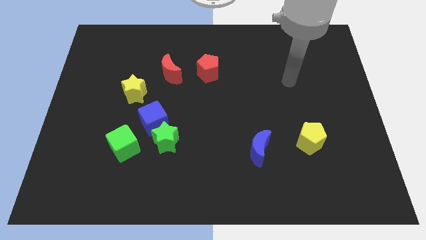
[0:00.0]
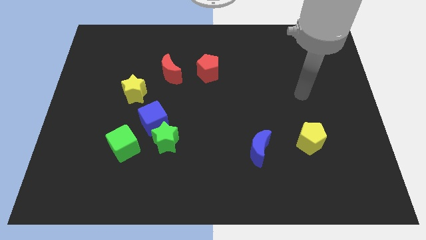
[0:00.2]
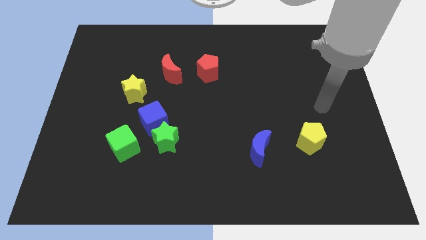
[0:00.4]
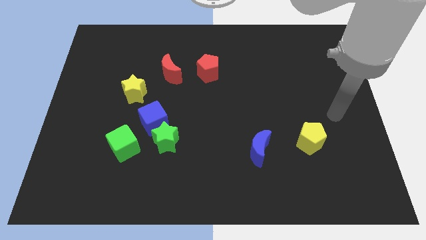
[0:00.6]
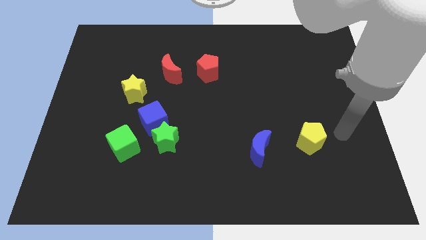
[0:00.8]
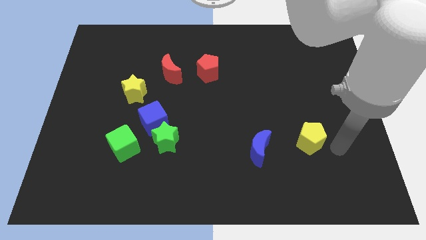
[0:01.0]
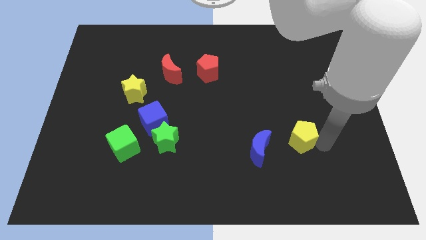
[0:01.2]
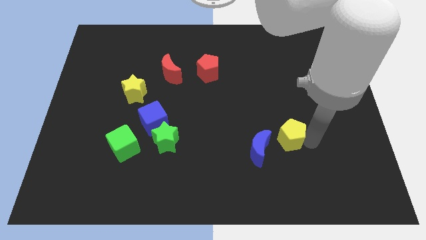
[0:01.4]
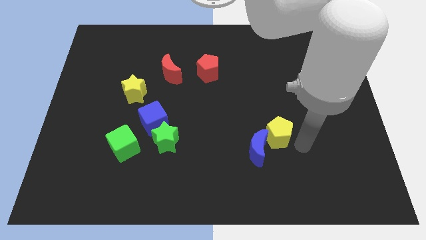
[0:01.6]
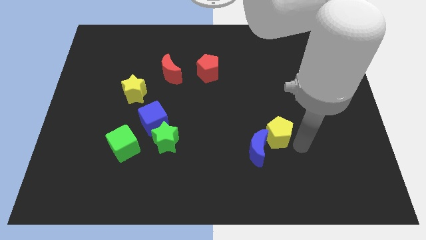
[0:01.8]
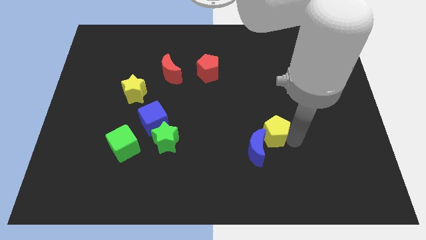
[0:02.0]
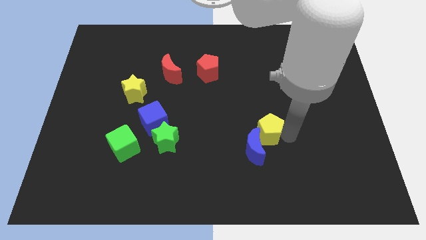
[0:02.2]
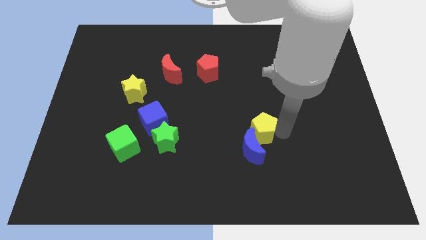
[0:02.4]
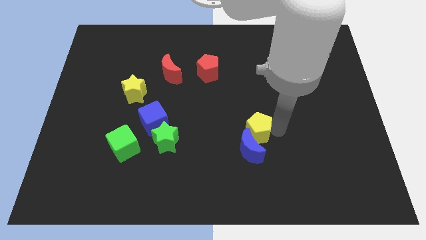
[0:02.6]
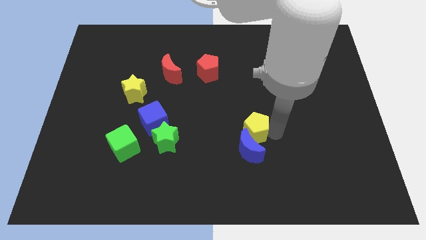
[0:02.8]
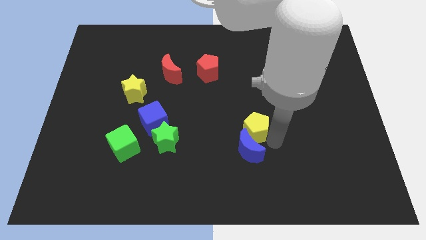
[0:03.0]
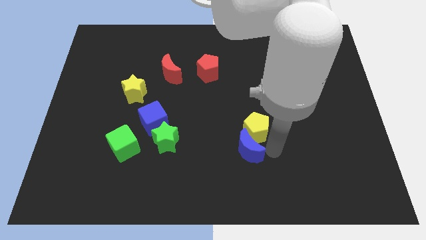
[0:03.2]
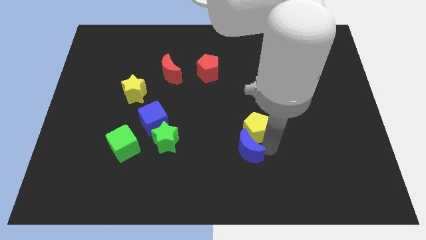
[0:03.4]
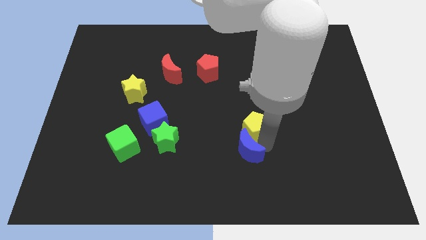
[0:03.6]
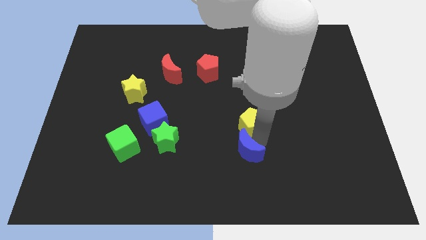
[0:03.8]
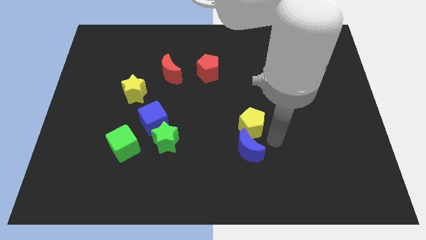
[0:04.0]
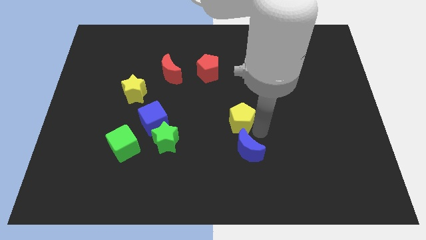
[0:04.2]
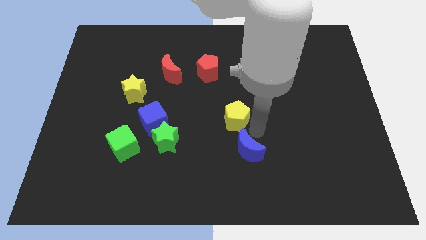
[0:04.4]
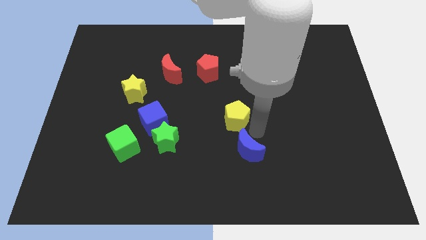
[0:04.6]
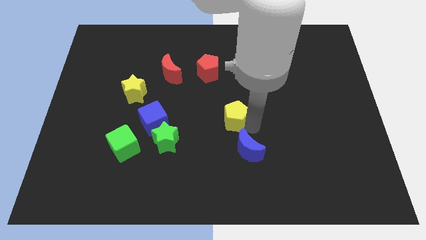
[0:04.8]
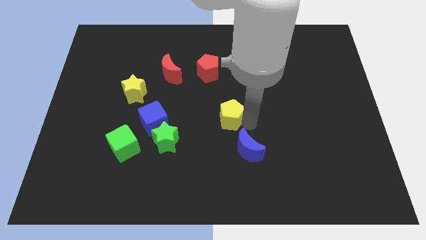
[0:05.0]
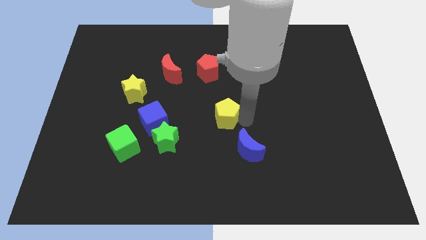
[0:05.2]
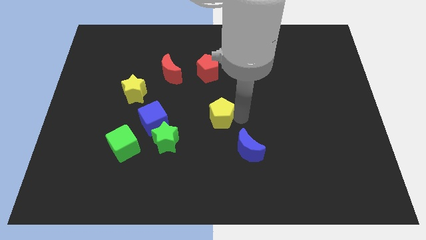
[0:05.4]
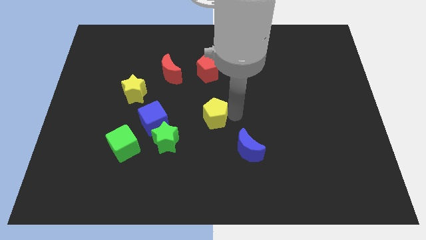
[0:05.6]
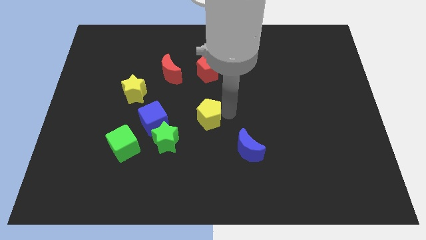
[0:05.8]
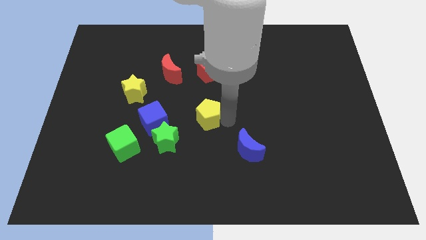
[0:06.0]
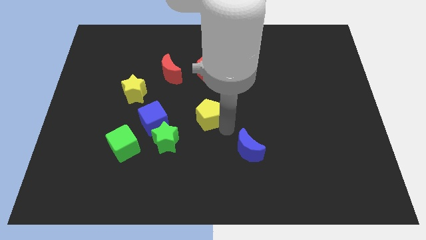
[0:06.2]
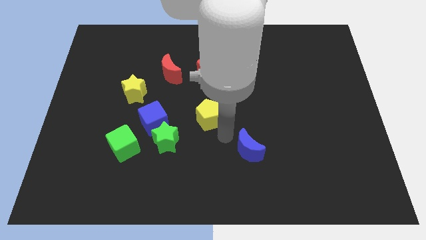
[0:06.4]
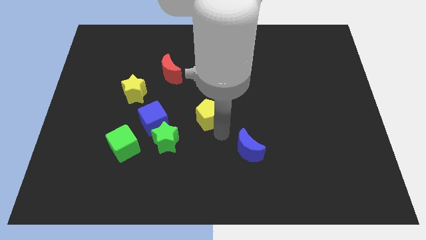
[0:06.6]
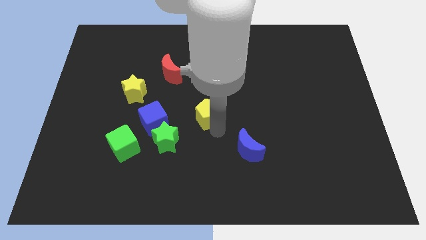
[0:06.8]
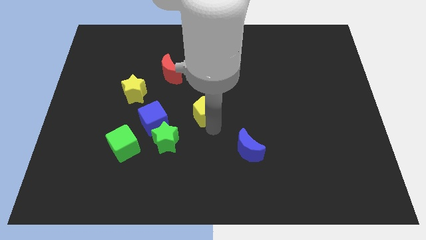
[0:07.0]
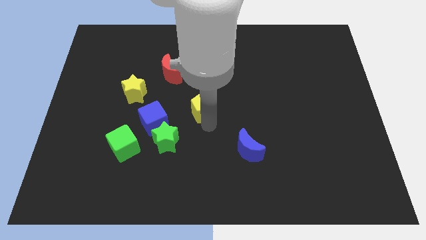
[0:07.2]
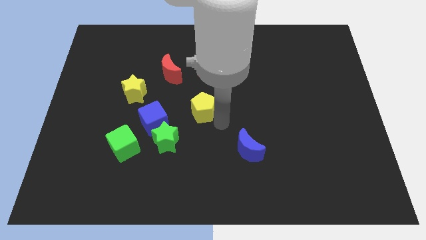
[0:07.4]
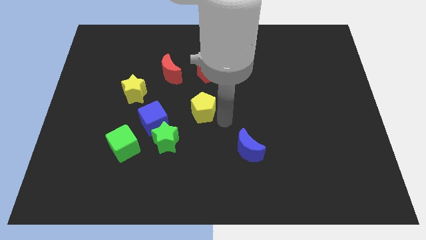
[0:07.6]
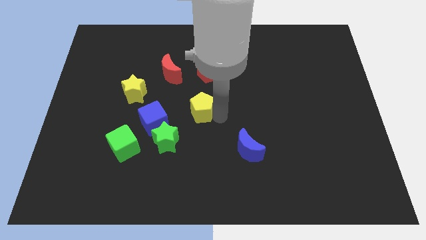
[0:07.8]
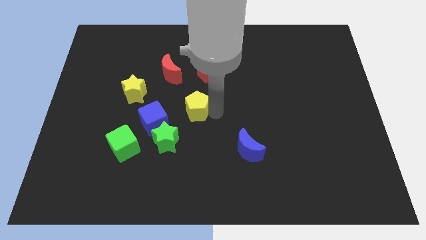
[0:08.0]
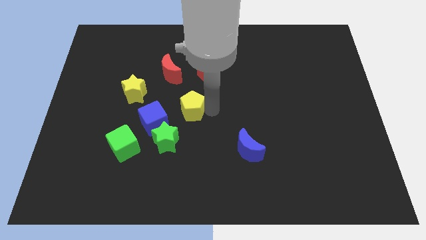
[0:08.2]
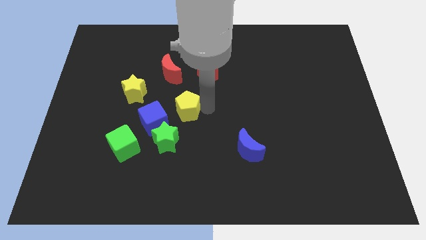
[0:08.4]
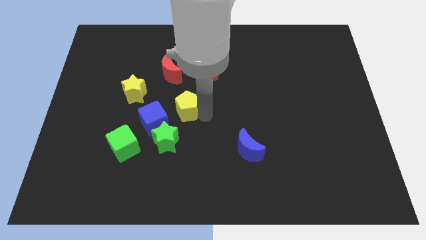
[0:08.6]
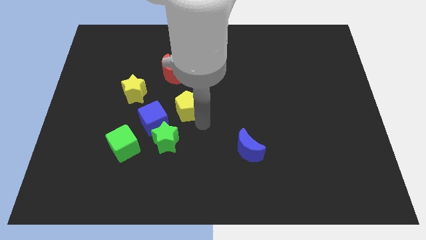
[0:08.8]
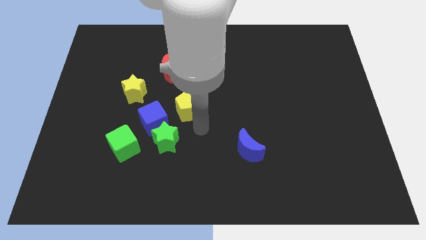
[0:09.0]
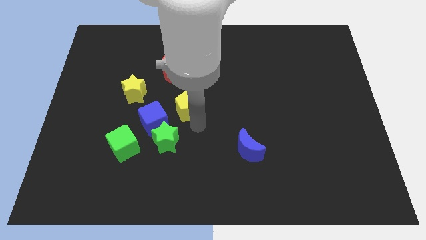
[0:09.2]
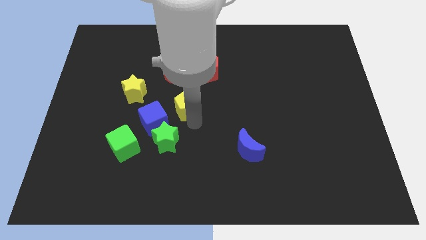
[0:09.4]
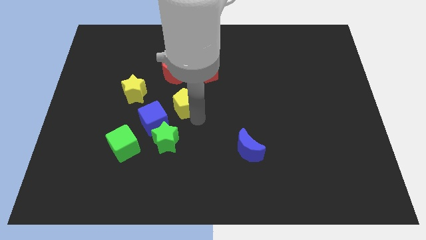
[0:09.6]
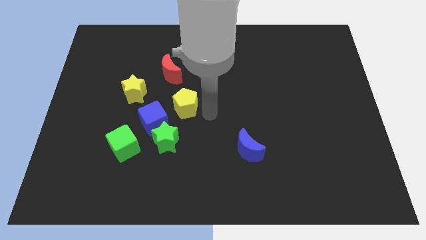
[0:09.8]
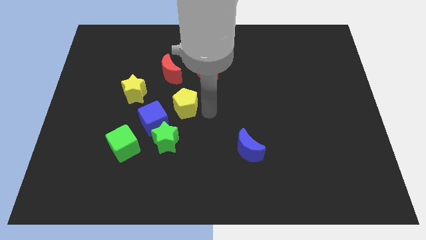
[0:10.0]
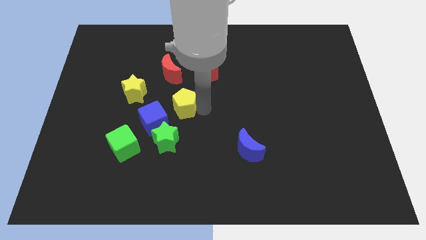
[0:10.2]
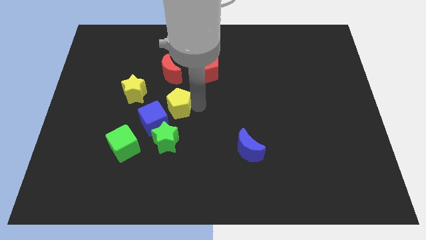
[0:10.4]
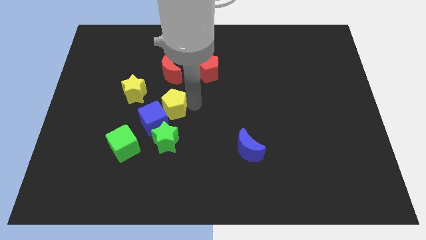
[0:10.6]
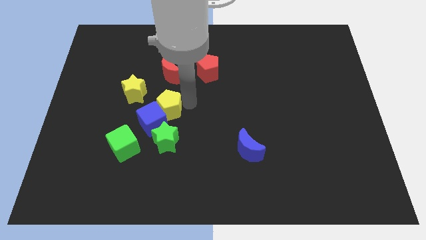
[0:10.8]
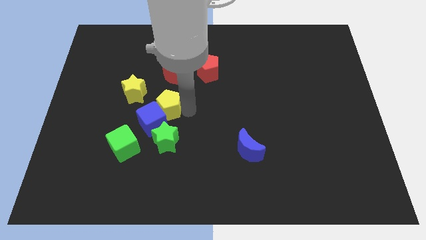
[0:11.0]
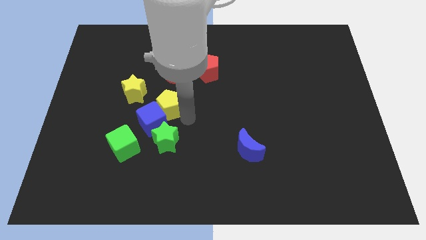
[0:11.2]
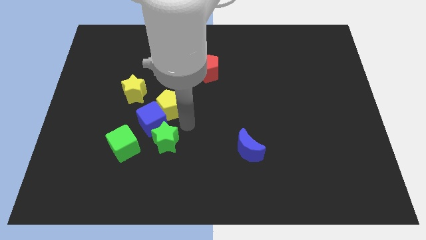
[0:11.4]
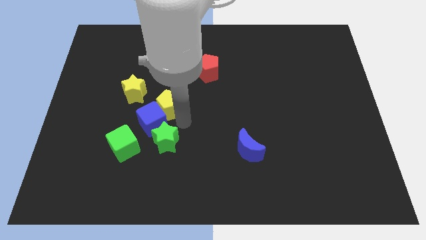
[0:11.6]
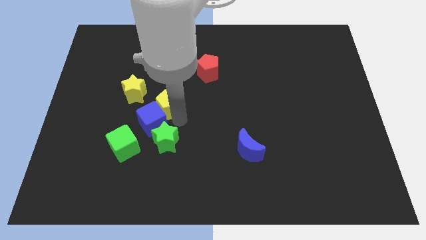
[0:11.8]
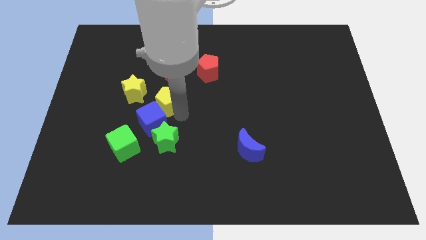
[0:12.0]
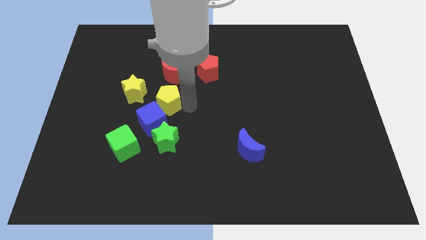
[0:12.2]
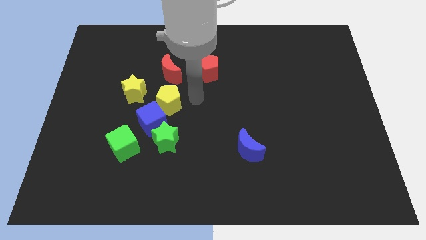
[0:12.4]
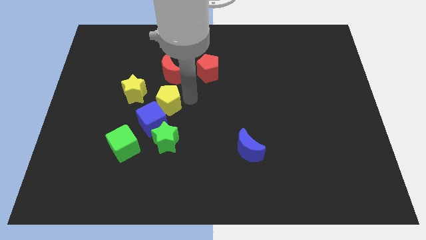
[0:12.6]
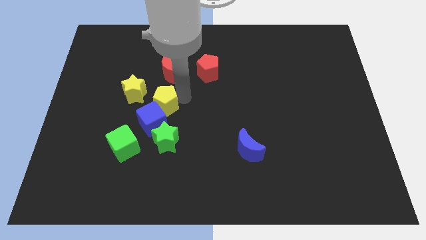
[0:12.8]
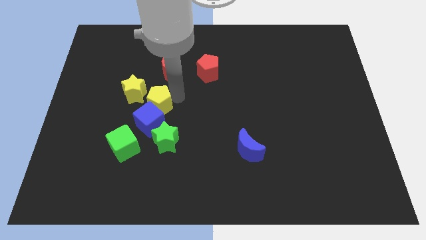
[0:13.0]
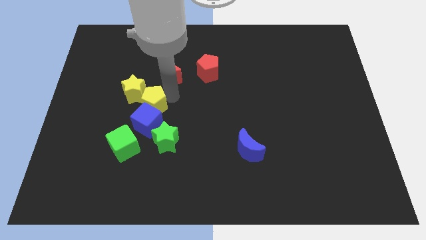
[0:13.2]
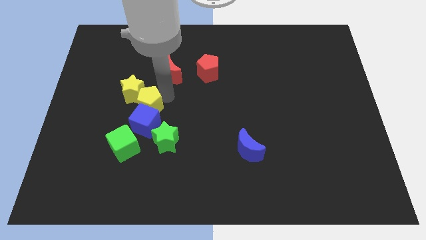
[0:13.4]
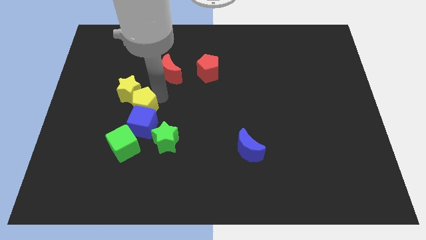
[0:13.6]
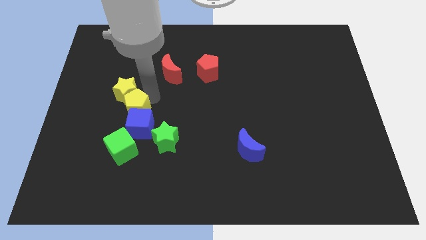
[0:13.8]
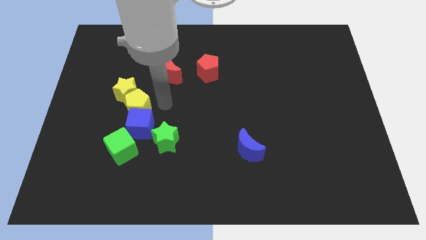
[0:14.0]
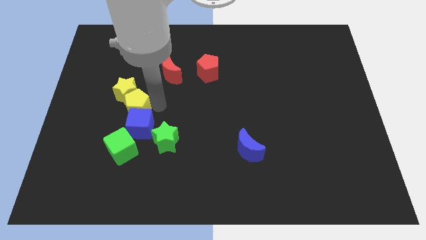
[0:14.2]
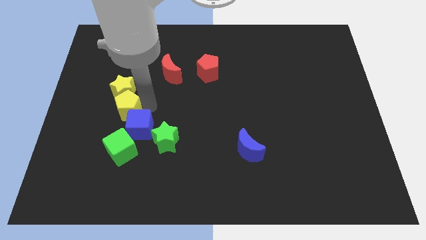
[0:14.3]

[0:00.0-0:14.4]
push the yellow pentagon diagonally down and to the left of the yellow star
